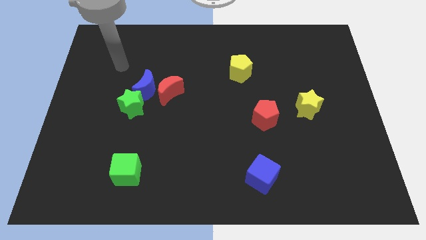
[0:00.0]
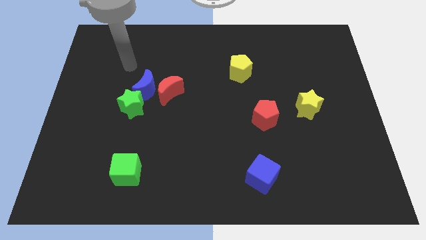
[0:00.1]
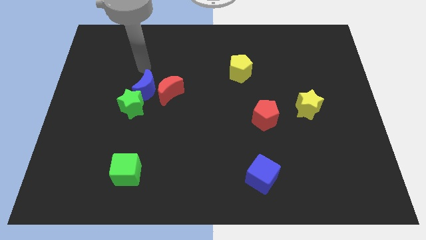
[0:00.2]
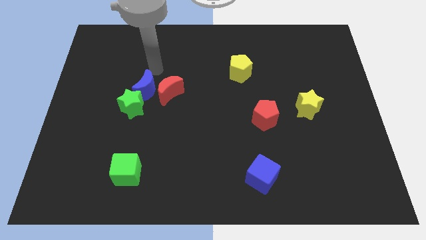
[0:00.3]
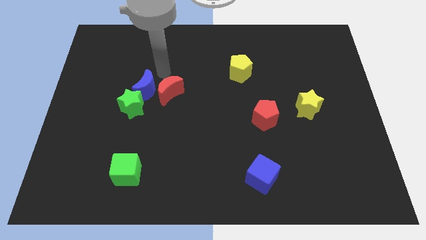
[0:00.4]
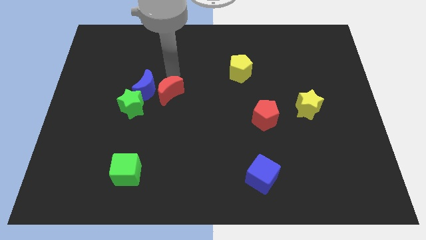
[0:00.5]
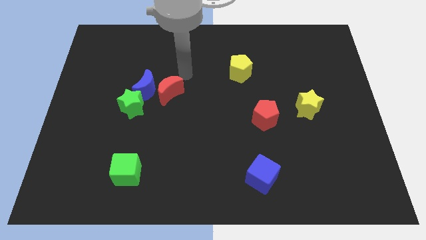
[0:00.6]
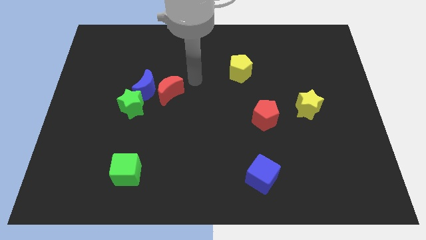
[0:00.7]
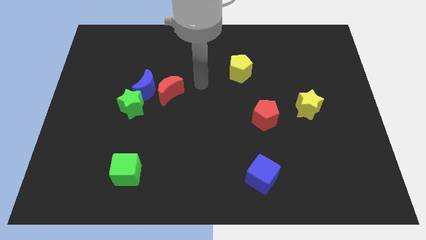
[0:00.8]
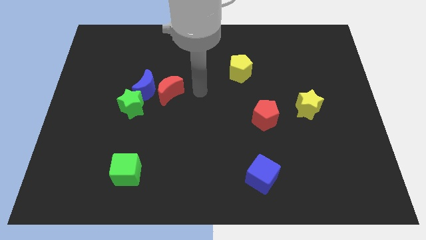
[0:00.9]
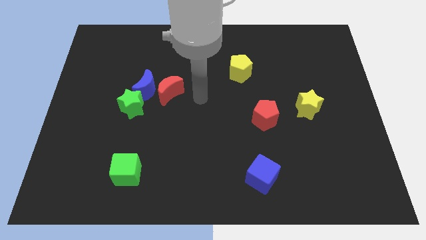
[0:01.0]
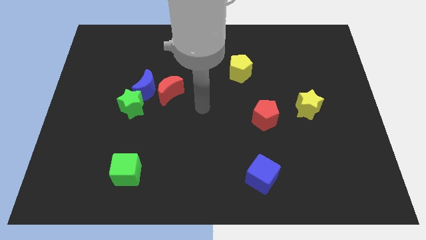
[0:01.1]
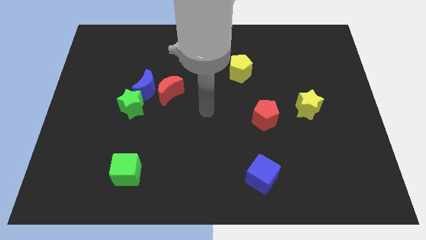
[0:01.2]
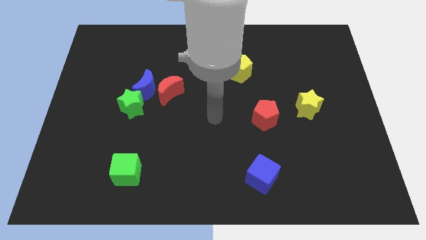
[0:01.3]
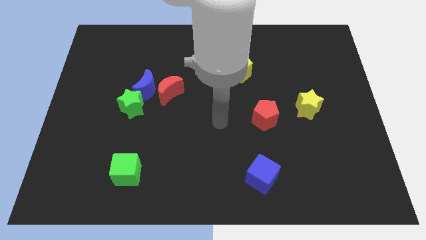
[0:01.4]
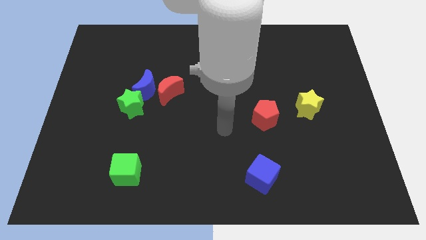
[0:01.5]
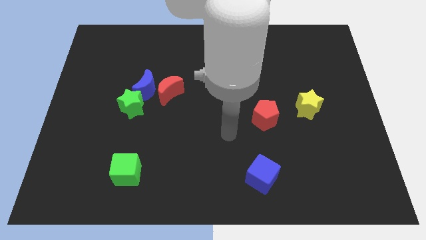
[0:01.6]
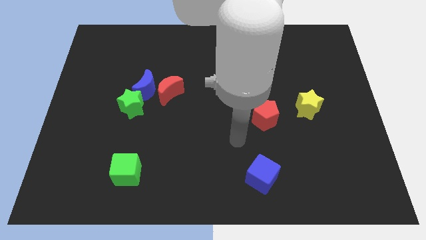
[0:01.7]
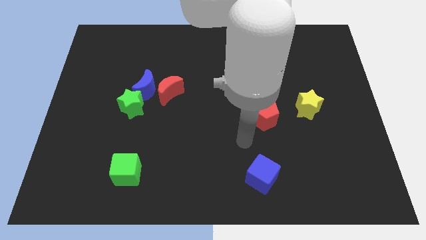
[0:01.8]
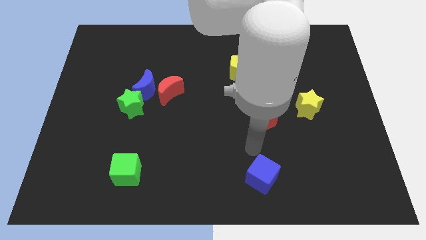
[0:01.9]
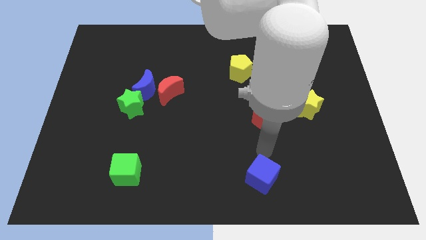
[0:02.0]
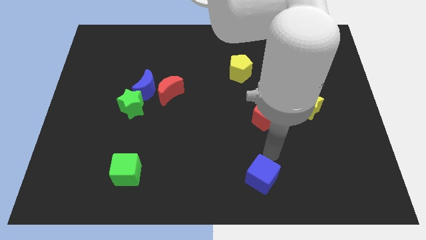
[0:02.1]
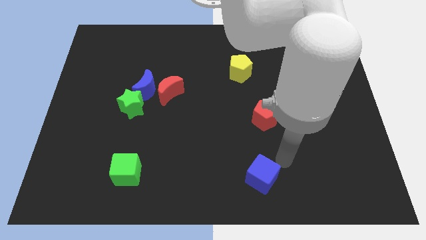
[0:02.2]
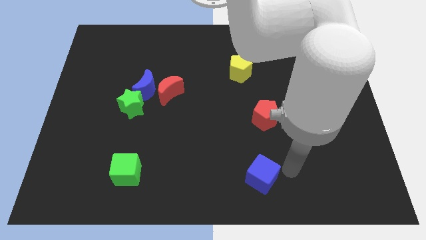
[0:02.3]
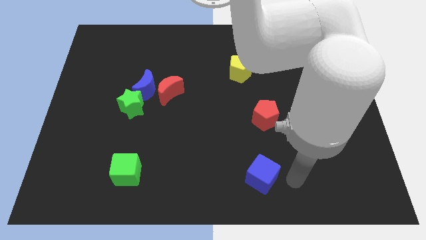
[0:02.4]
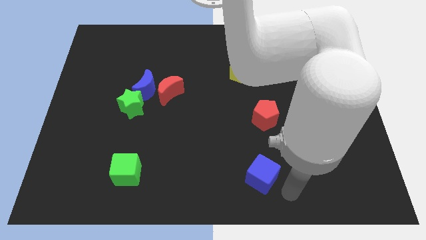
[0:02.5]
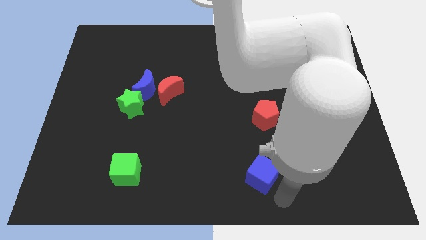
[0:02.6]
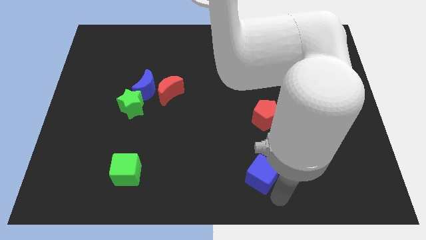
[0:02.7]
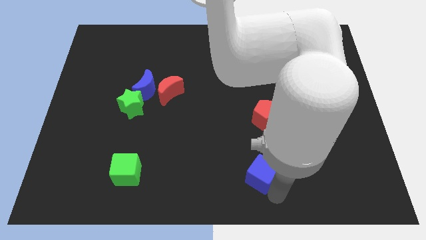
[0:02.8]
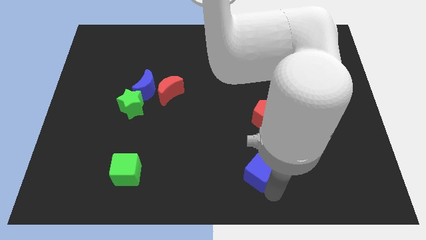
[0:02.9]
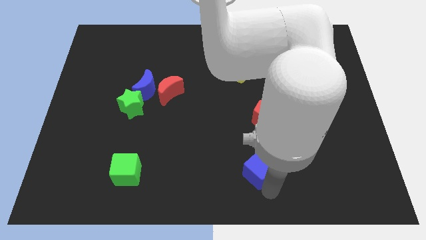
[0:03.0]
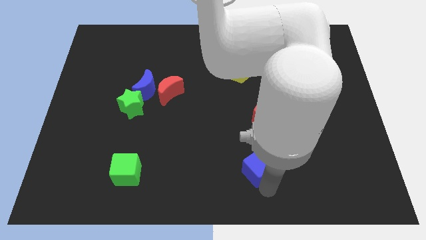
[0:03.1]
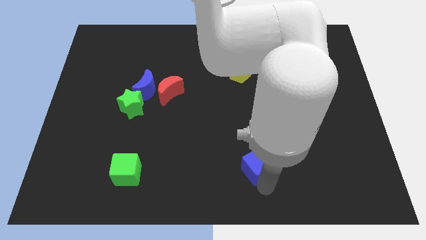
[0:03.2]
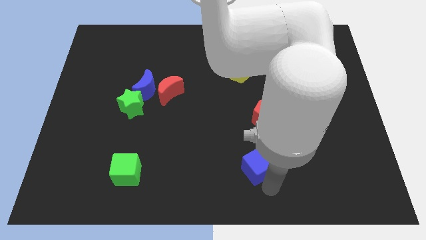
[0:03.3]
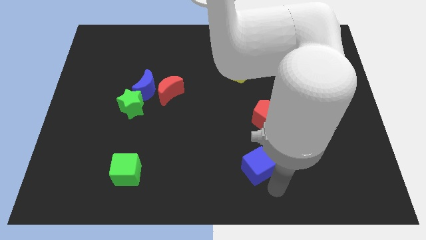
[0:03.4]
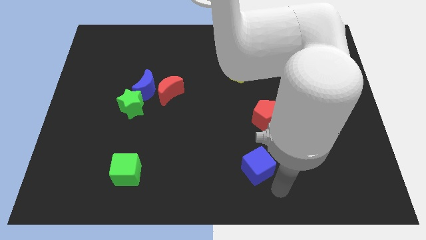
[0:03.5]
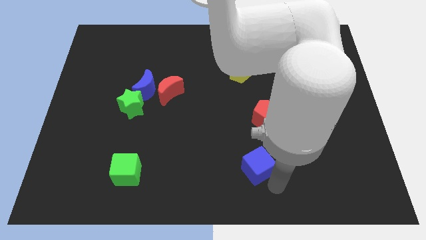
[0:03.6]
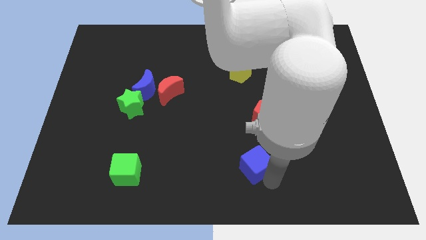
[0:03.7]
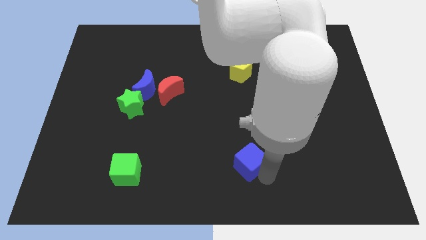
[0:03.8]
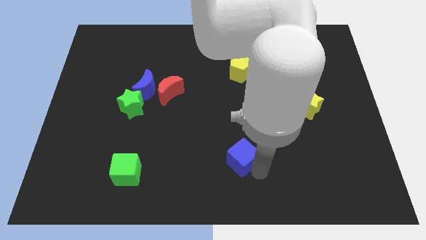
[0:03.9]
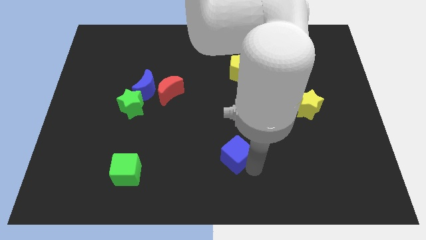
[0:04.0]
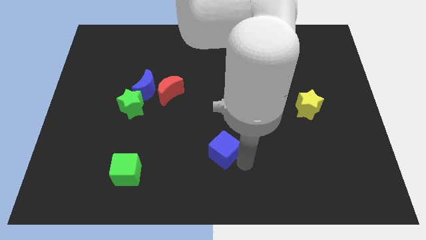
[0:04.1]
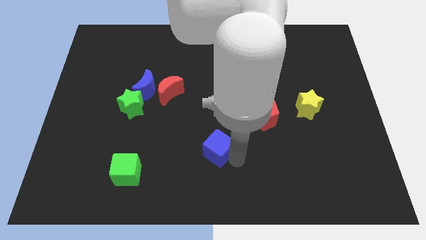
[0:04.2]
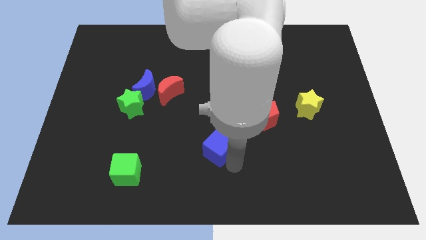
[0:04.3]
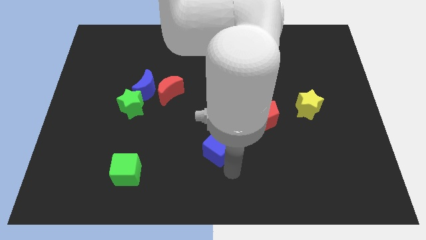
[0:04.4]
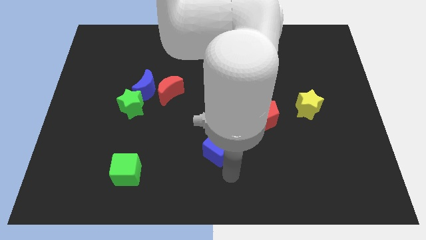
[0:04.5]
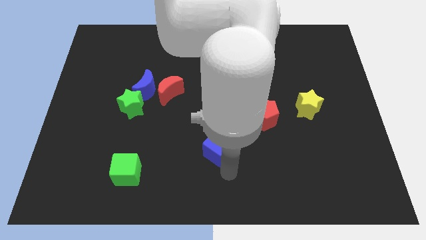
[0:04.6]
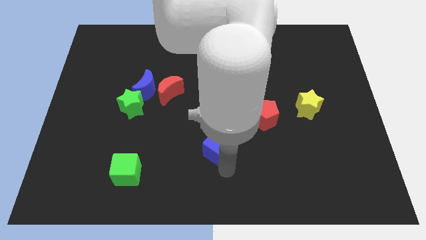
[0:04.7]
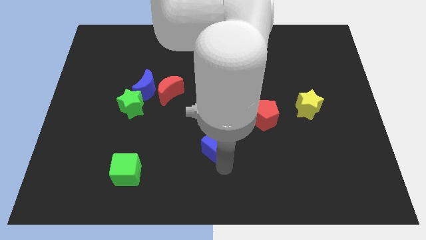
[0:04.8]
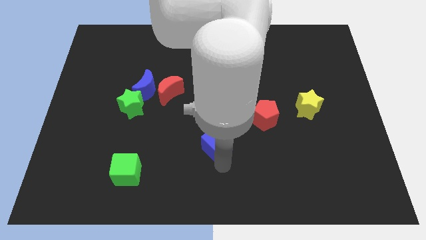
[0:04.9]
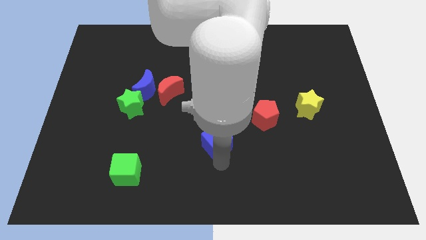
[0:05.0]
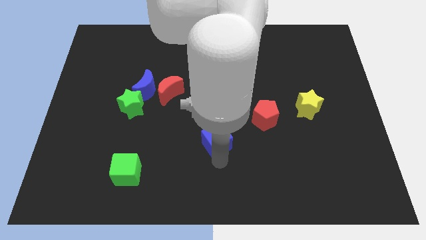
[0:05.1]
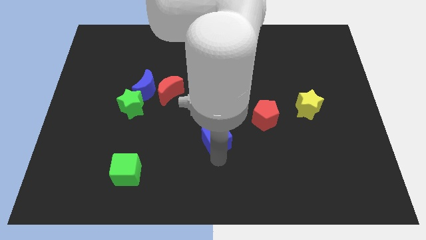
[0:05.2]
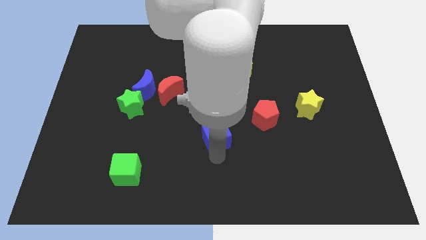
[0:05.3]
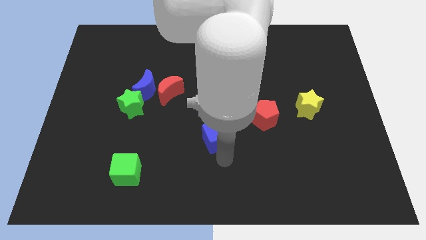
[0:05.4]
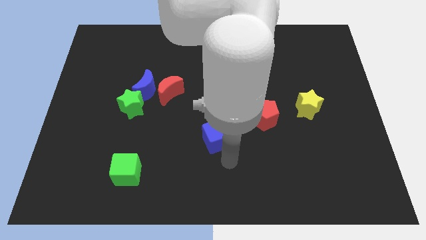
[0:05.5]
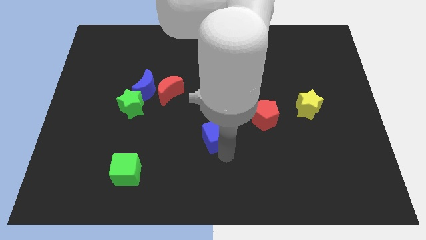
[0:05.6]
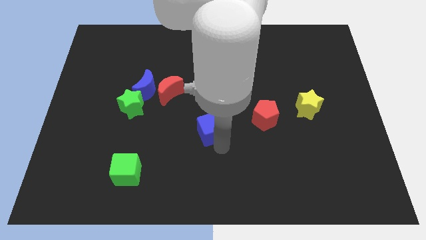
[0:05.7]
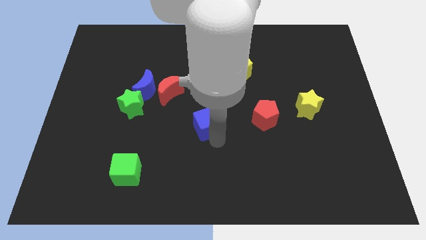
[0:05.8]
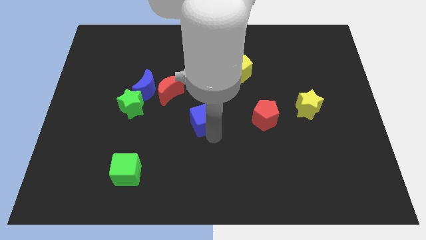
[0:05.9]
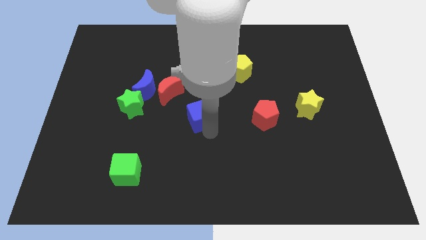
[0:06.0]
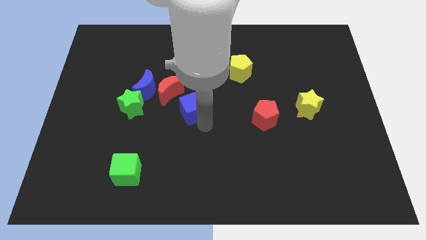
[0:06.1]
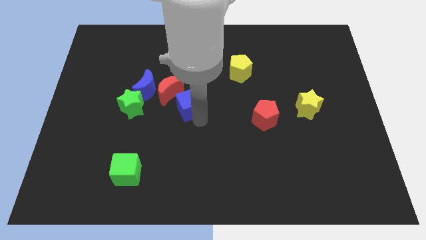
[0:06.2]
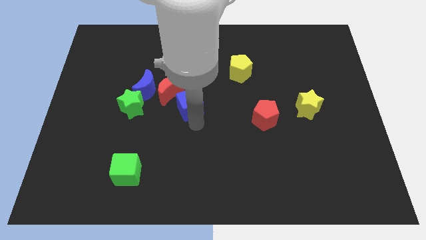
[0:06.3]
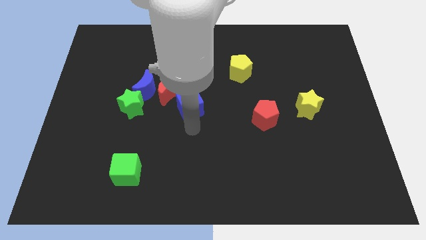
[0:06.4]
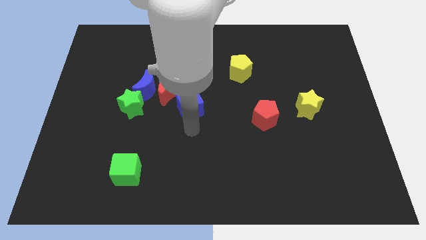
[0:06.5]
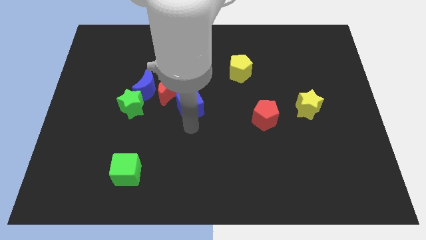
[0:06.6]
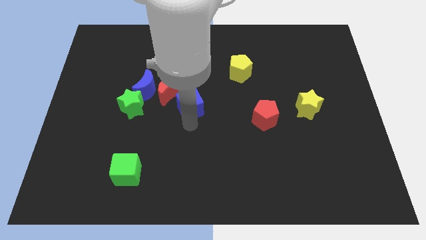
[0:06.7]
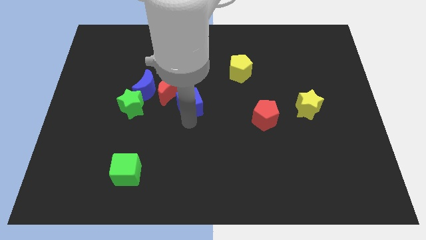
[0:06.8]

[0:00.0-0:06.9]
push the blue cube to the right side of the blue moon
